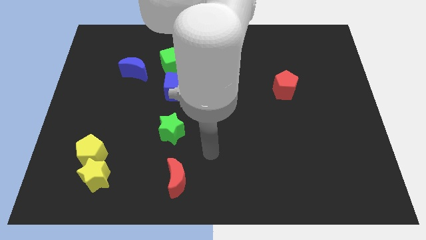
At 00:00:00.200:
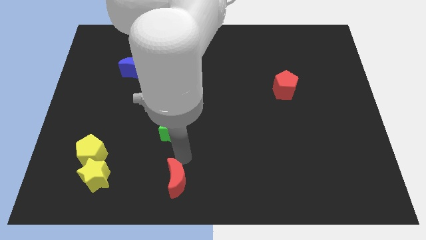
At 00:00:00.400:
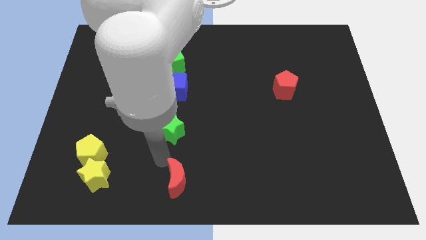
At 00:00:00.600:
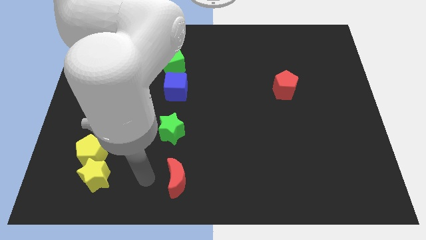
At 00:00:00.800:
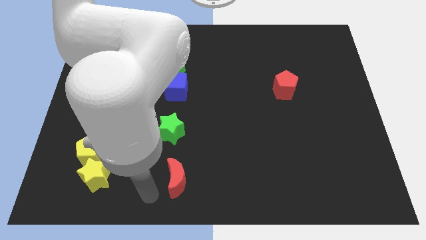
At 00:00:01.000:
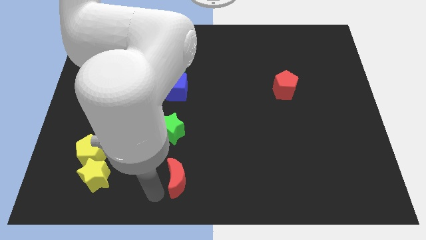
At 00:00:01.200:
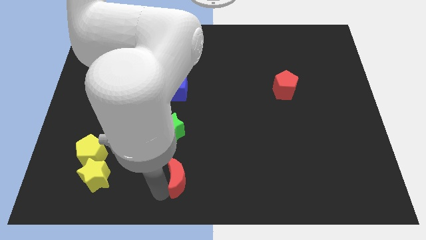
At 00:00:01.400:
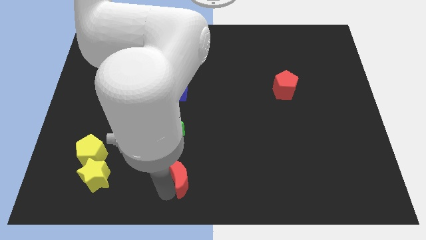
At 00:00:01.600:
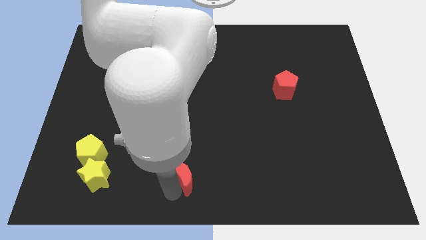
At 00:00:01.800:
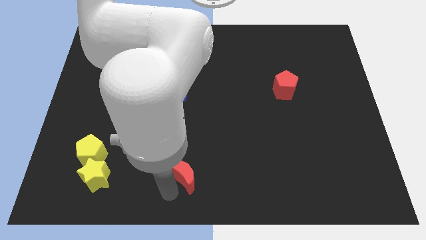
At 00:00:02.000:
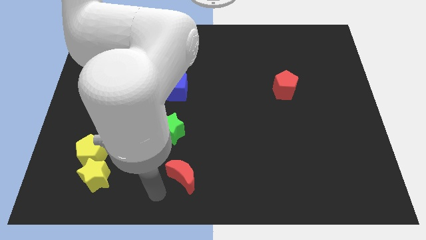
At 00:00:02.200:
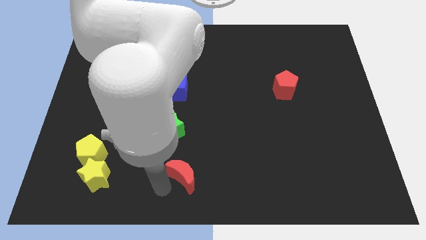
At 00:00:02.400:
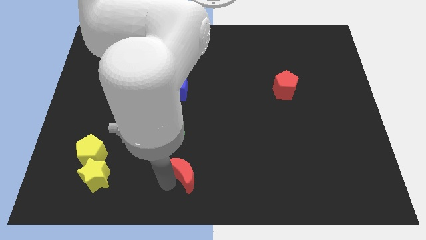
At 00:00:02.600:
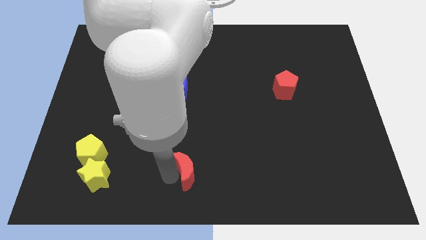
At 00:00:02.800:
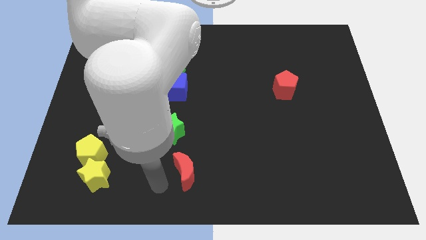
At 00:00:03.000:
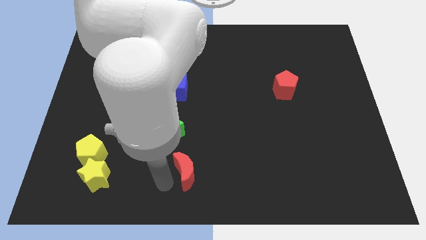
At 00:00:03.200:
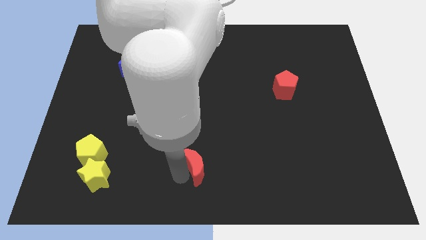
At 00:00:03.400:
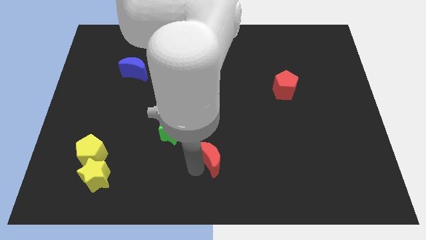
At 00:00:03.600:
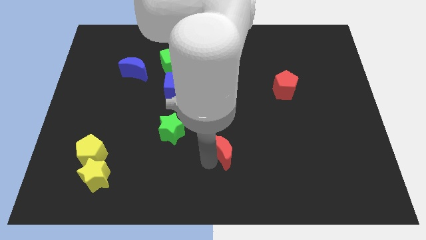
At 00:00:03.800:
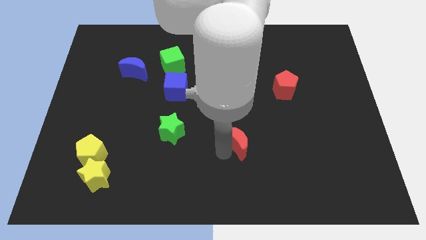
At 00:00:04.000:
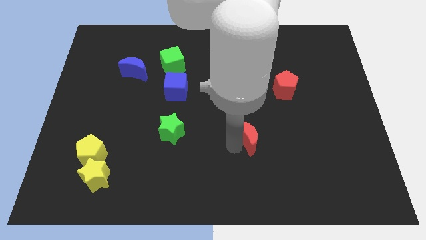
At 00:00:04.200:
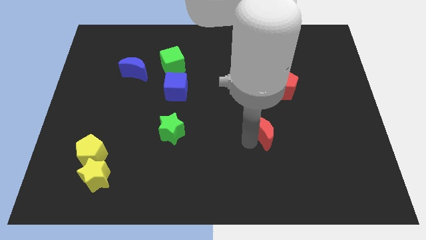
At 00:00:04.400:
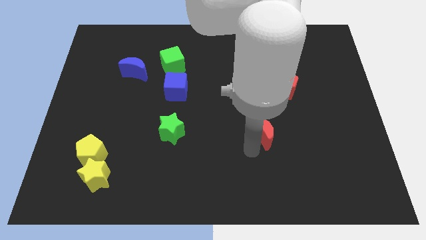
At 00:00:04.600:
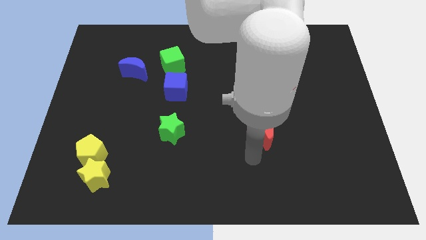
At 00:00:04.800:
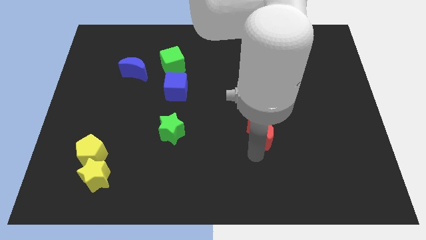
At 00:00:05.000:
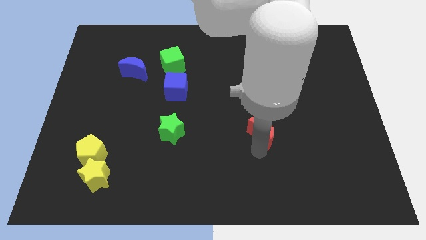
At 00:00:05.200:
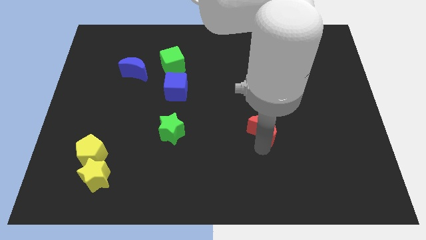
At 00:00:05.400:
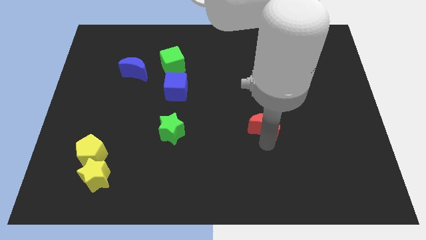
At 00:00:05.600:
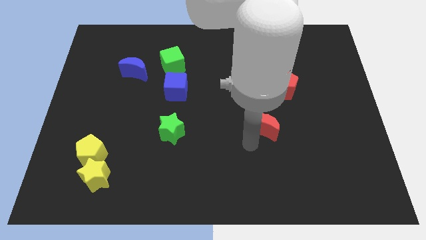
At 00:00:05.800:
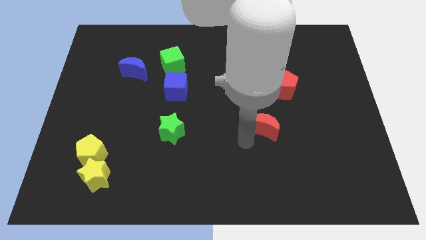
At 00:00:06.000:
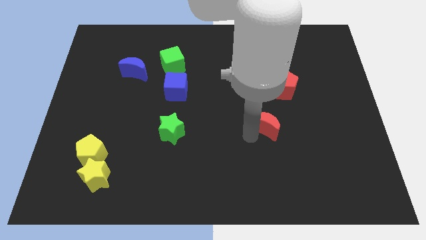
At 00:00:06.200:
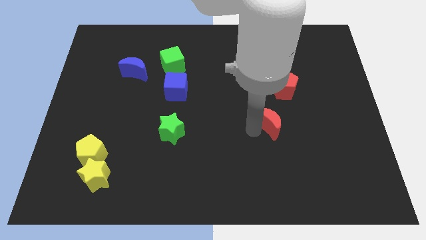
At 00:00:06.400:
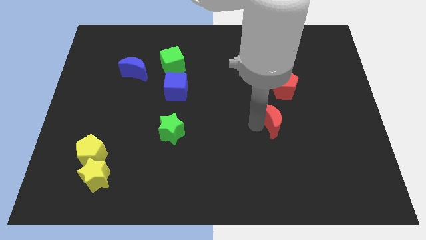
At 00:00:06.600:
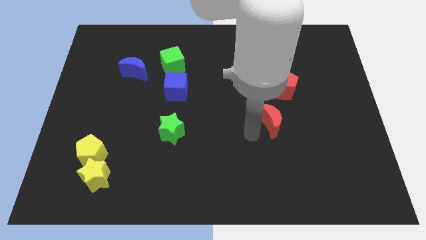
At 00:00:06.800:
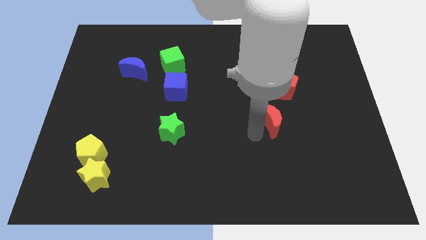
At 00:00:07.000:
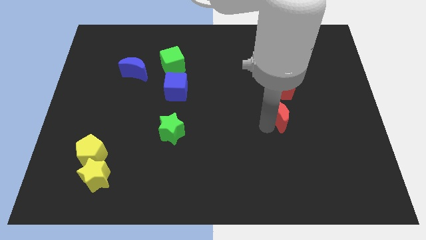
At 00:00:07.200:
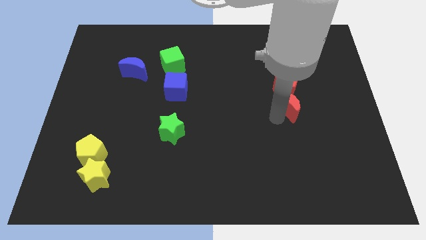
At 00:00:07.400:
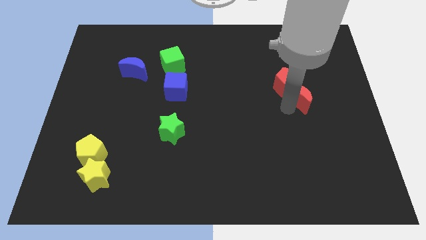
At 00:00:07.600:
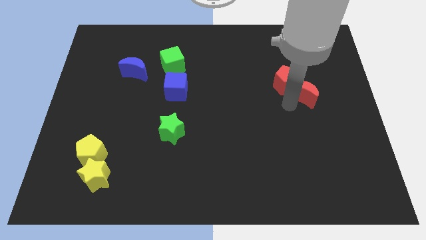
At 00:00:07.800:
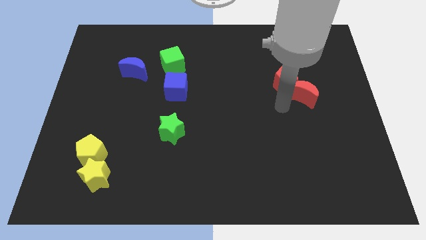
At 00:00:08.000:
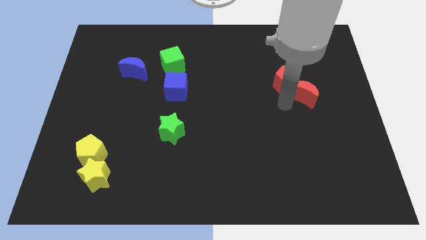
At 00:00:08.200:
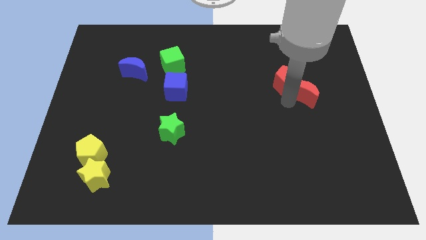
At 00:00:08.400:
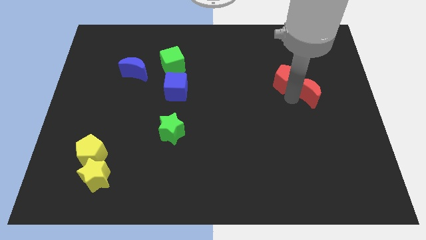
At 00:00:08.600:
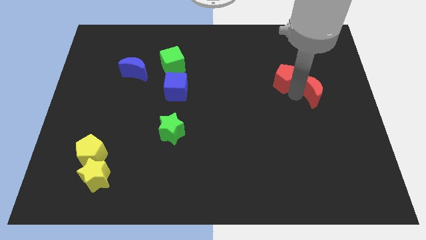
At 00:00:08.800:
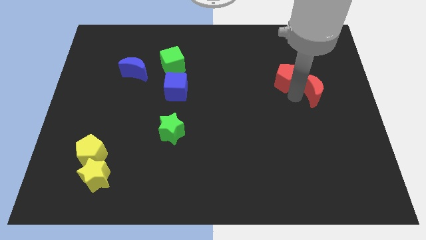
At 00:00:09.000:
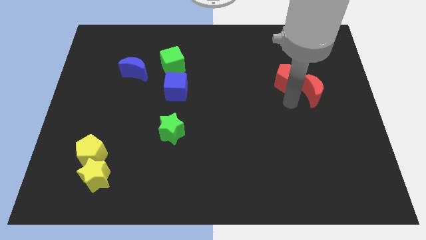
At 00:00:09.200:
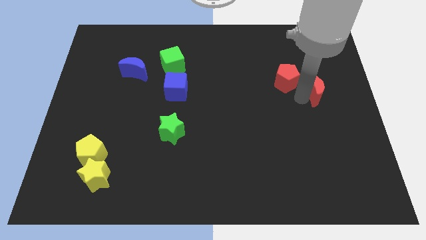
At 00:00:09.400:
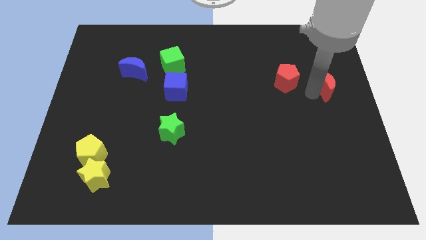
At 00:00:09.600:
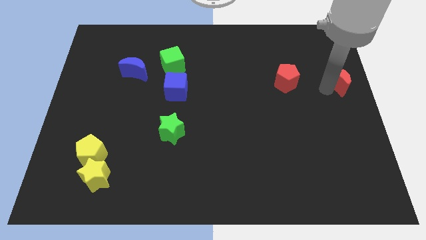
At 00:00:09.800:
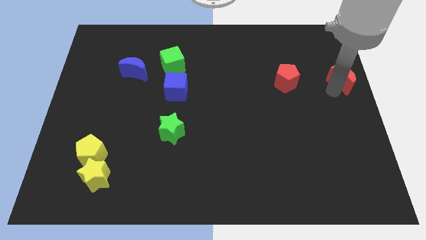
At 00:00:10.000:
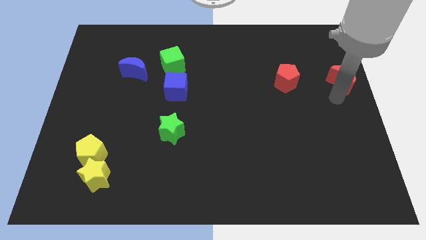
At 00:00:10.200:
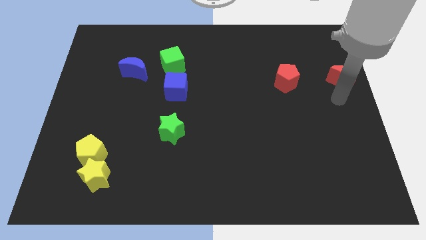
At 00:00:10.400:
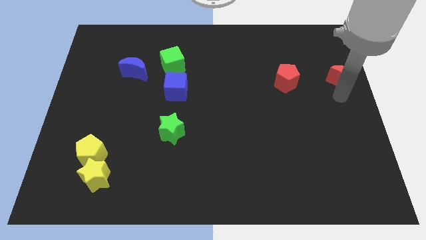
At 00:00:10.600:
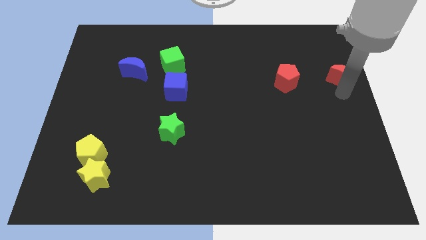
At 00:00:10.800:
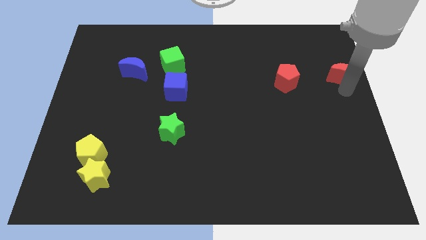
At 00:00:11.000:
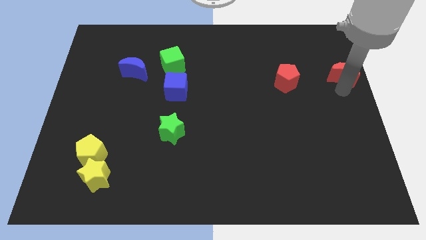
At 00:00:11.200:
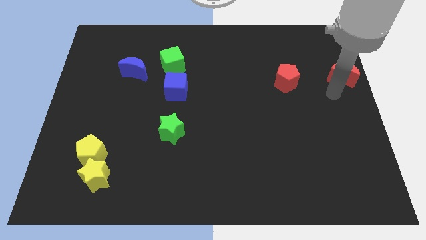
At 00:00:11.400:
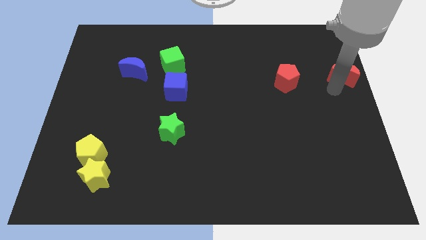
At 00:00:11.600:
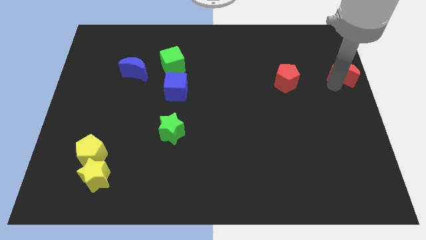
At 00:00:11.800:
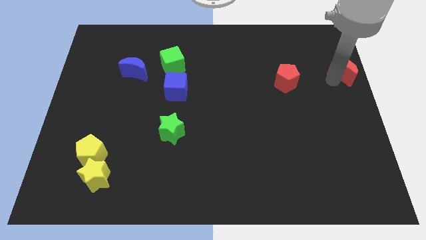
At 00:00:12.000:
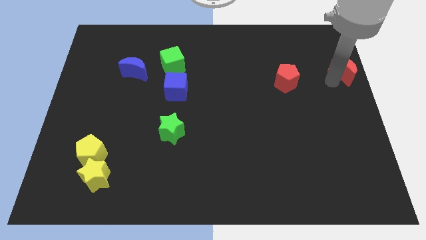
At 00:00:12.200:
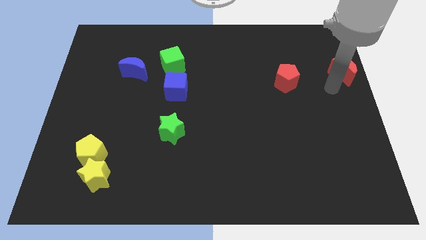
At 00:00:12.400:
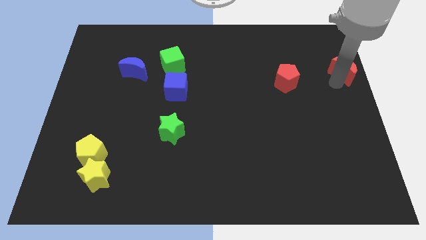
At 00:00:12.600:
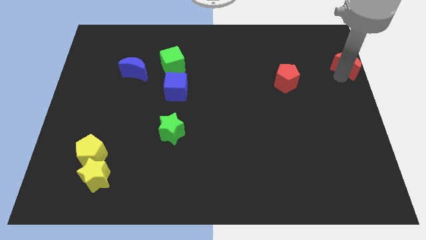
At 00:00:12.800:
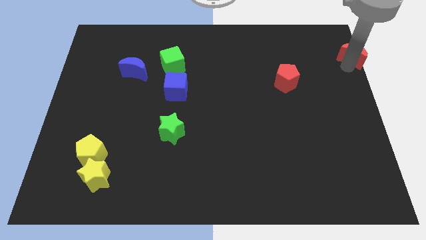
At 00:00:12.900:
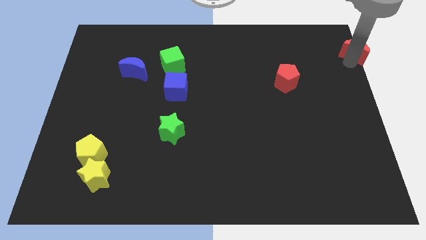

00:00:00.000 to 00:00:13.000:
put the red moon to the top right corner
